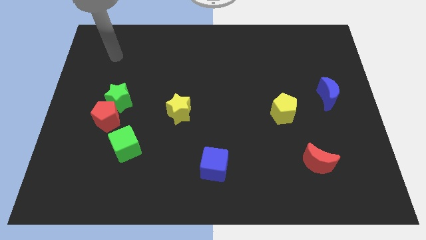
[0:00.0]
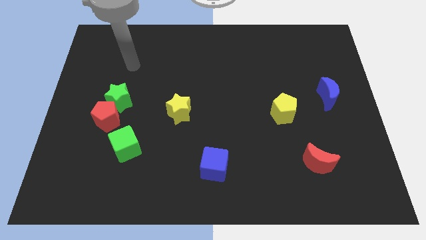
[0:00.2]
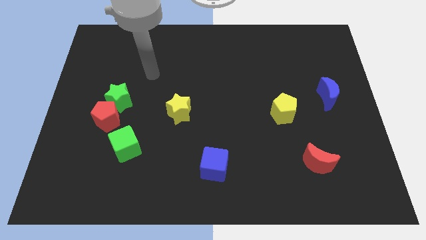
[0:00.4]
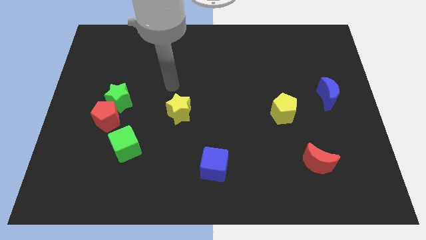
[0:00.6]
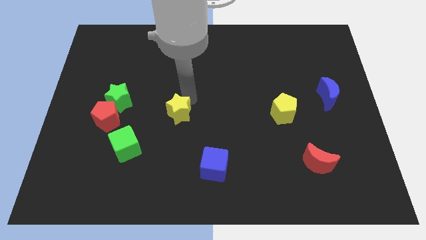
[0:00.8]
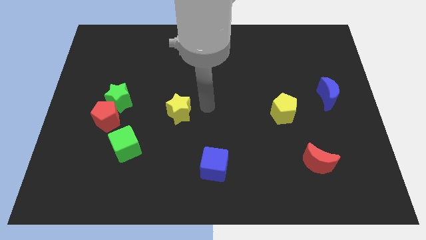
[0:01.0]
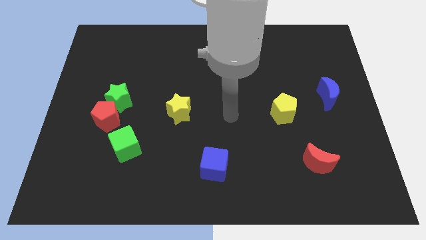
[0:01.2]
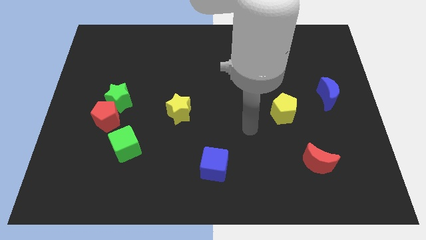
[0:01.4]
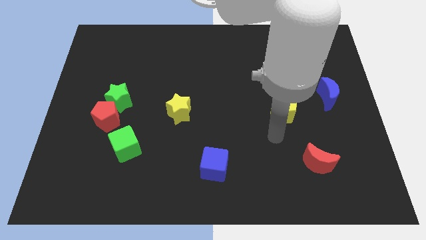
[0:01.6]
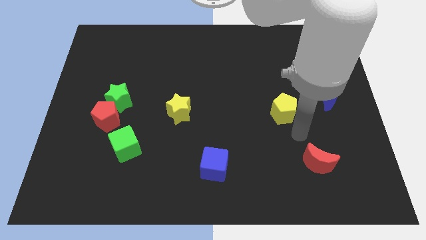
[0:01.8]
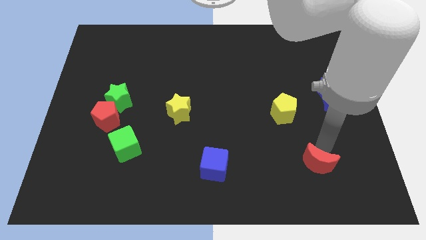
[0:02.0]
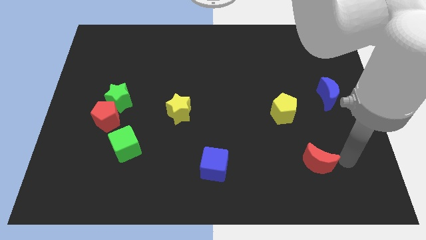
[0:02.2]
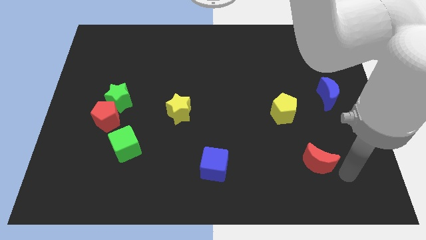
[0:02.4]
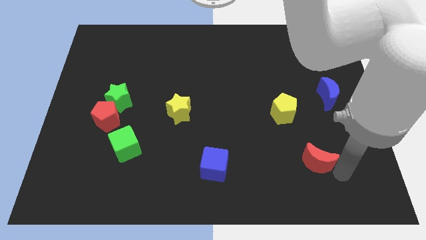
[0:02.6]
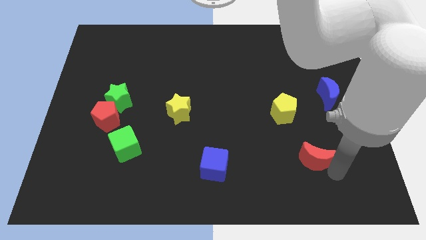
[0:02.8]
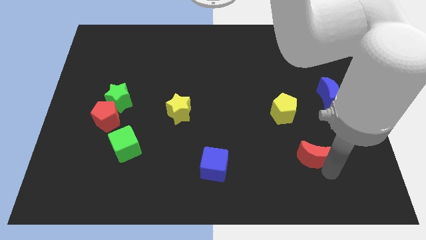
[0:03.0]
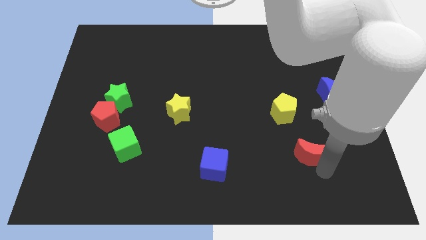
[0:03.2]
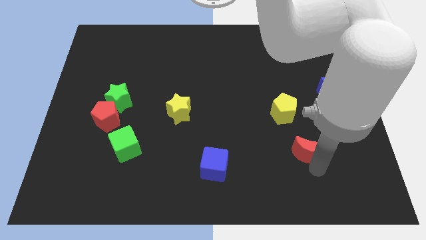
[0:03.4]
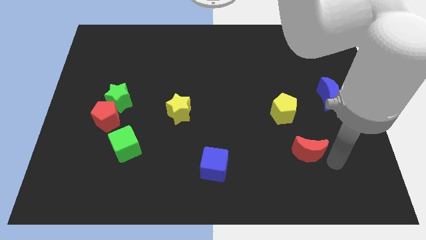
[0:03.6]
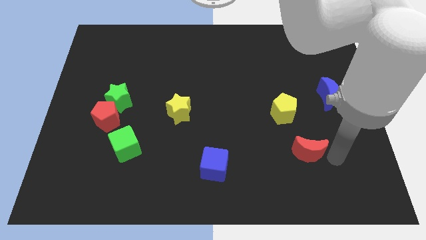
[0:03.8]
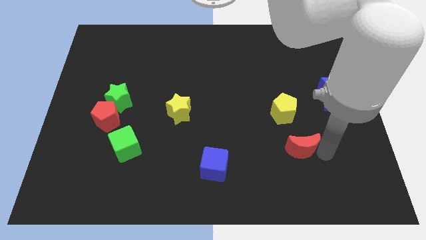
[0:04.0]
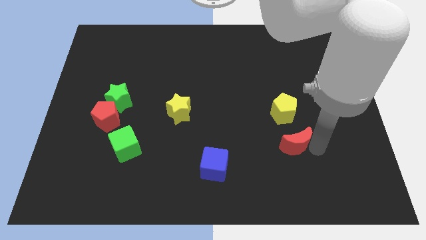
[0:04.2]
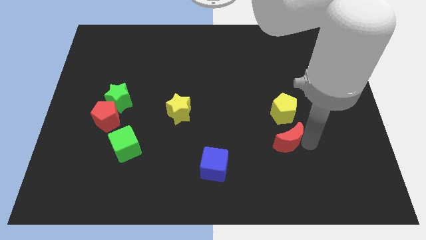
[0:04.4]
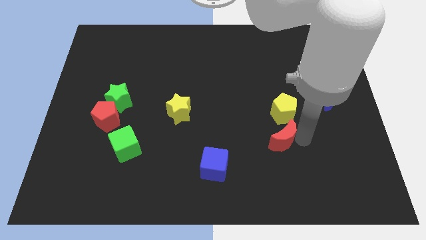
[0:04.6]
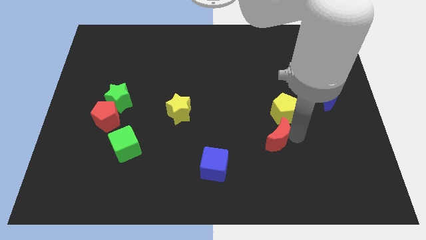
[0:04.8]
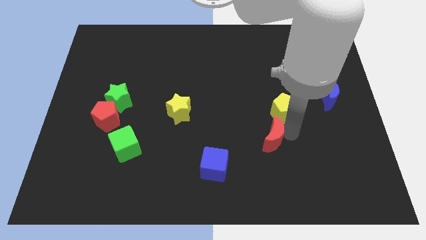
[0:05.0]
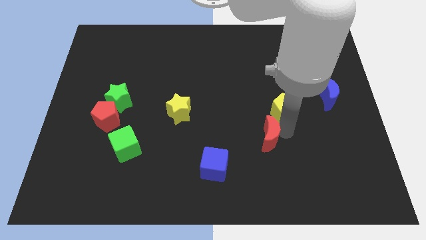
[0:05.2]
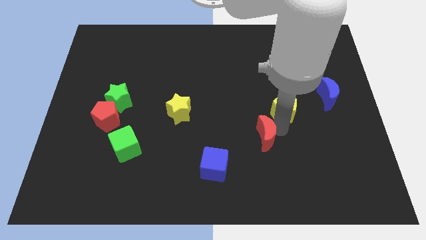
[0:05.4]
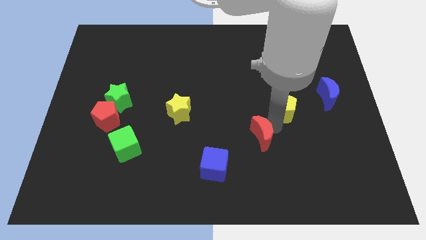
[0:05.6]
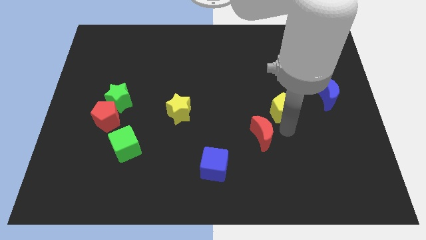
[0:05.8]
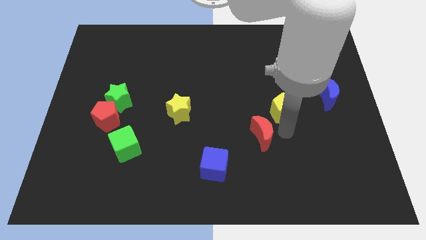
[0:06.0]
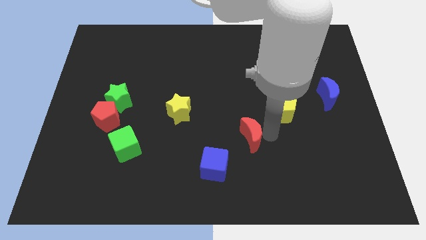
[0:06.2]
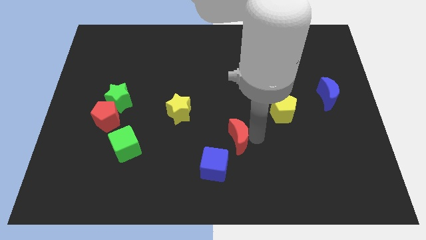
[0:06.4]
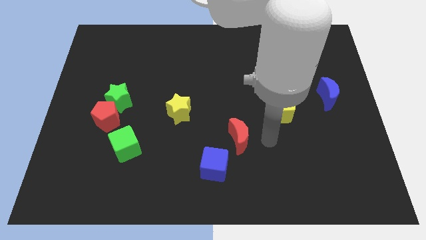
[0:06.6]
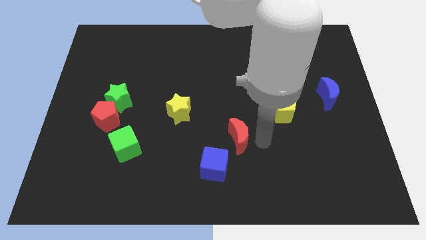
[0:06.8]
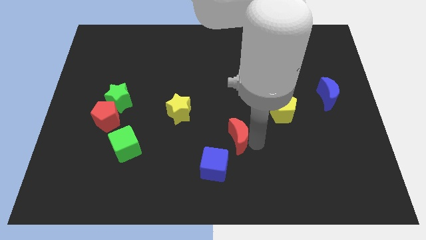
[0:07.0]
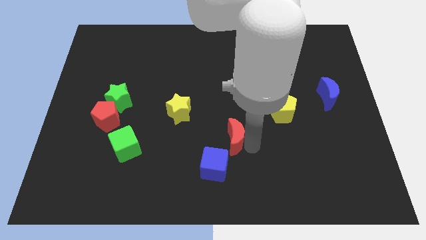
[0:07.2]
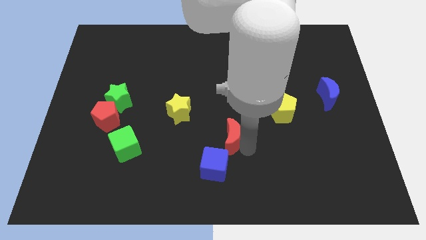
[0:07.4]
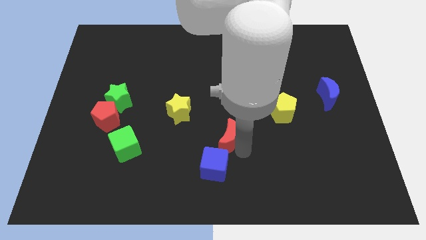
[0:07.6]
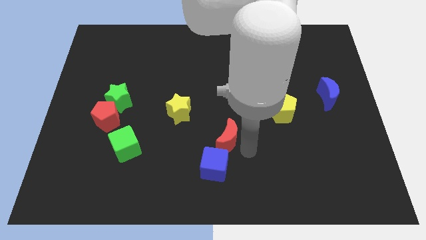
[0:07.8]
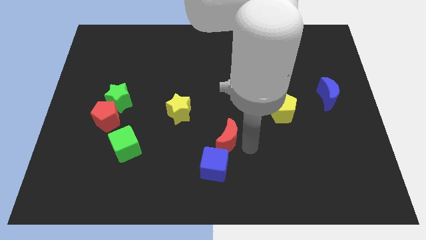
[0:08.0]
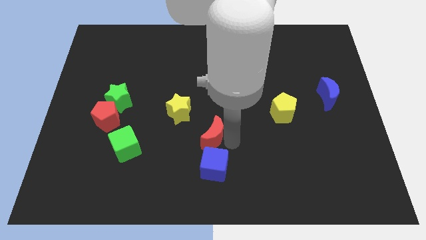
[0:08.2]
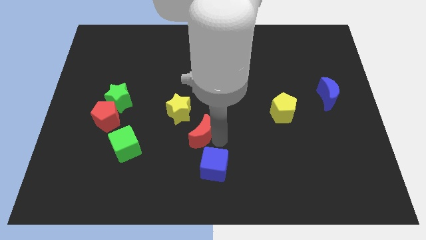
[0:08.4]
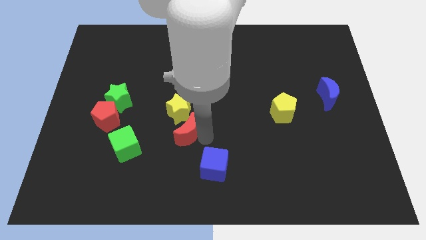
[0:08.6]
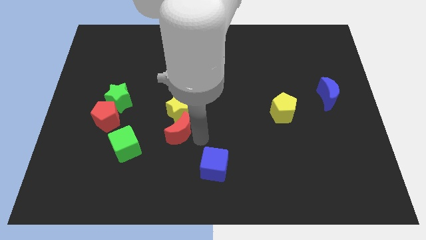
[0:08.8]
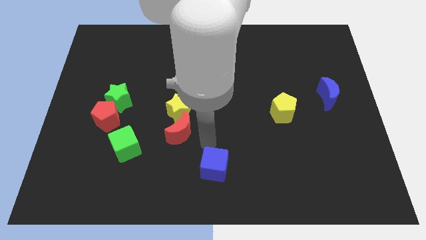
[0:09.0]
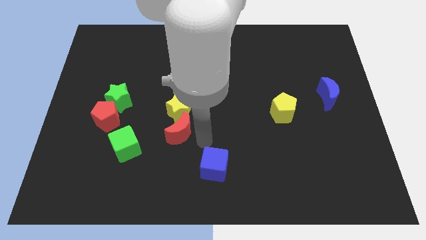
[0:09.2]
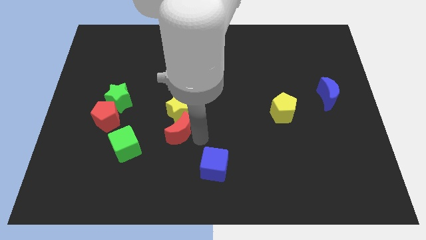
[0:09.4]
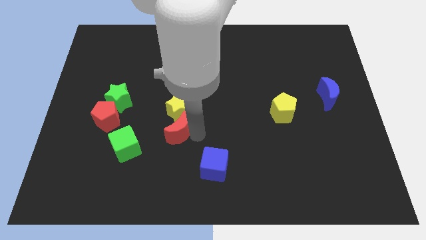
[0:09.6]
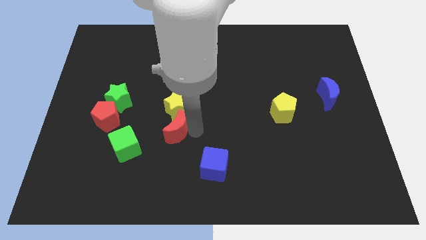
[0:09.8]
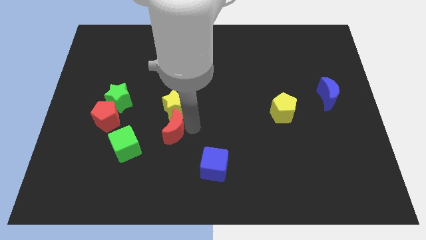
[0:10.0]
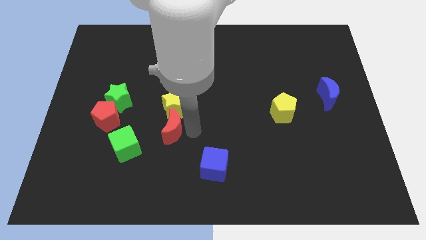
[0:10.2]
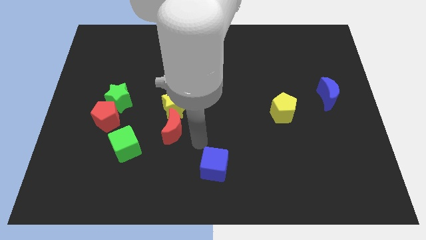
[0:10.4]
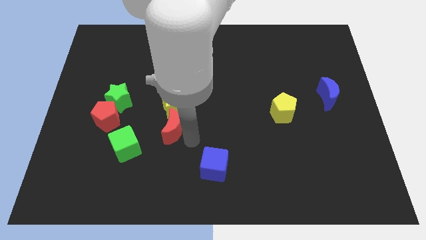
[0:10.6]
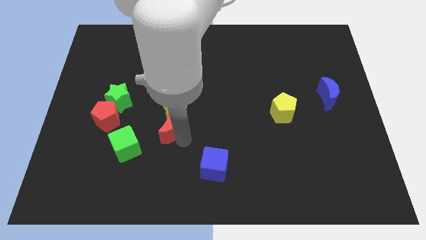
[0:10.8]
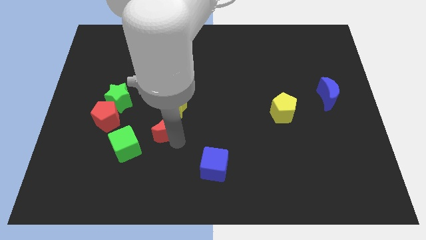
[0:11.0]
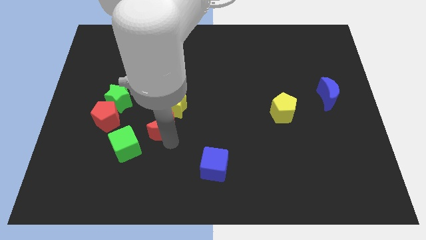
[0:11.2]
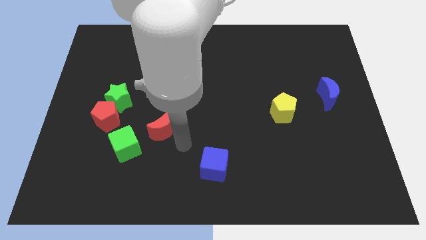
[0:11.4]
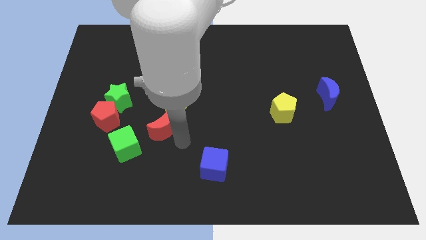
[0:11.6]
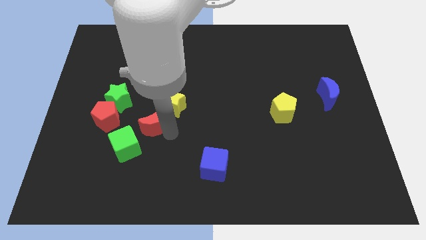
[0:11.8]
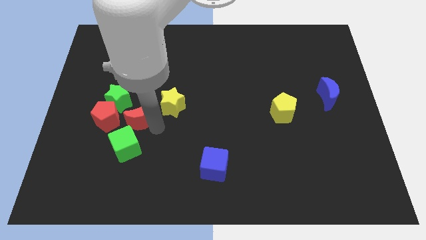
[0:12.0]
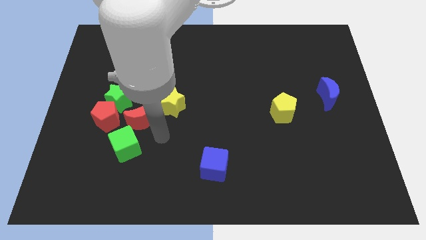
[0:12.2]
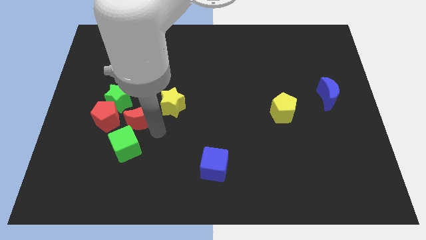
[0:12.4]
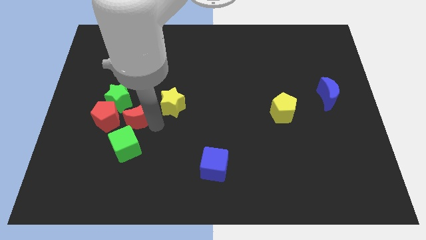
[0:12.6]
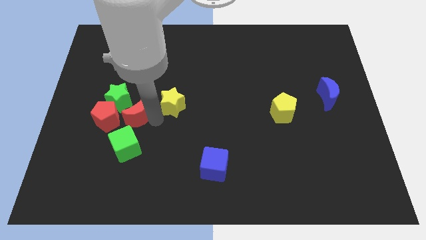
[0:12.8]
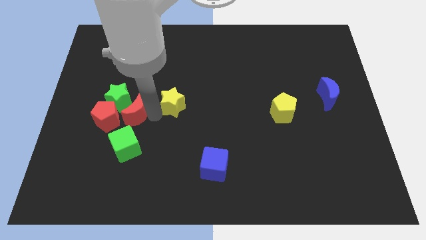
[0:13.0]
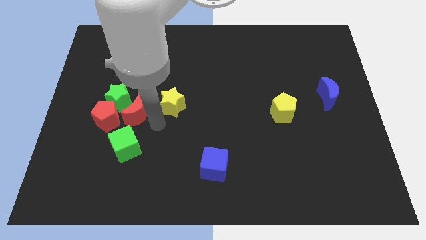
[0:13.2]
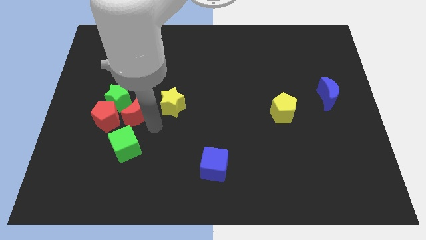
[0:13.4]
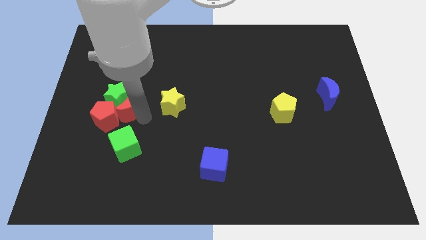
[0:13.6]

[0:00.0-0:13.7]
put the red moon towards the green star
